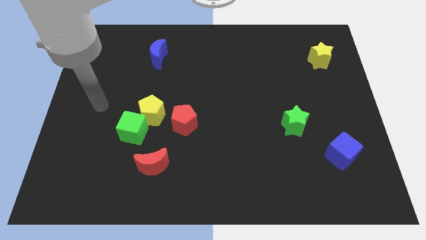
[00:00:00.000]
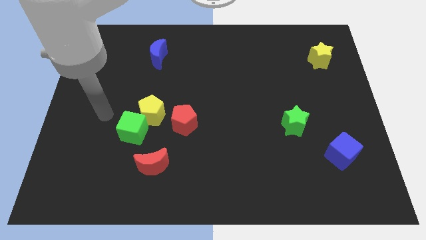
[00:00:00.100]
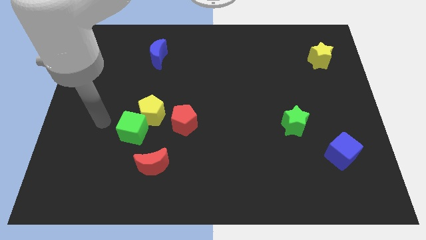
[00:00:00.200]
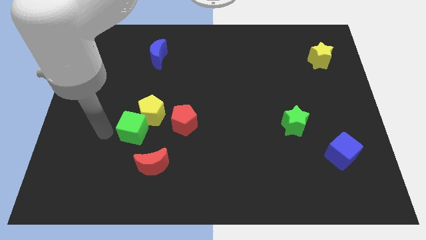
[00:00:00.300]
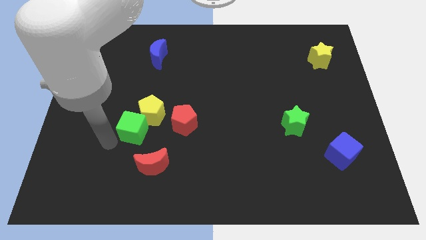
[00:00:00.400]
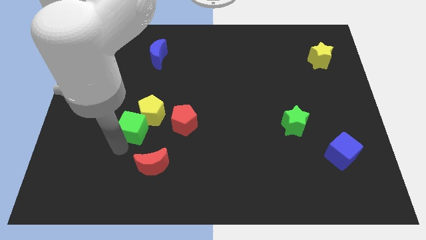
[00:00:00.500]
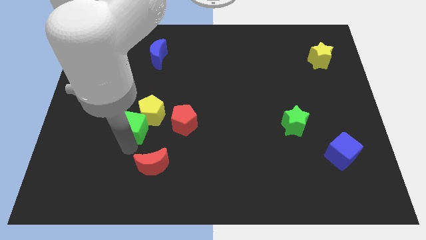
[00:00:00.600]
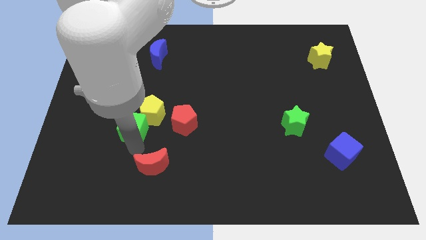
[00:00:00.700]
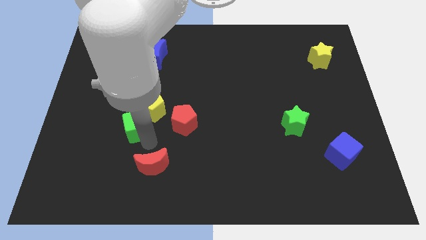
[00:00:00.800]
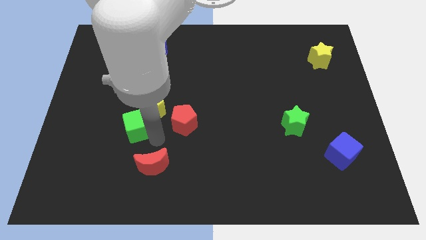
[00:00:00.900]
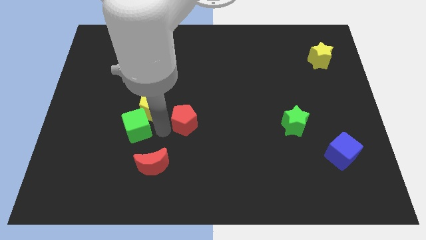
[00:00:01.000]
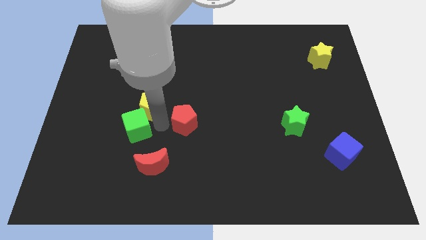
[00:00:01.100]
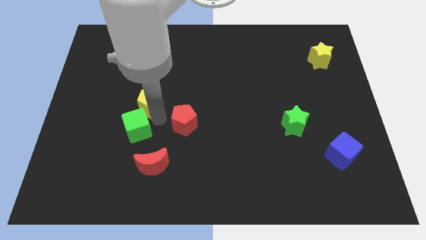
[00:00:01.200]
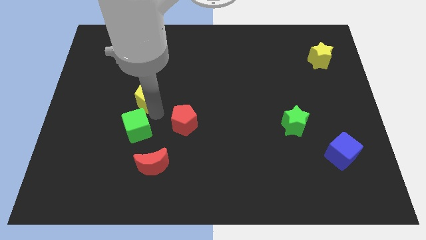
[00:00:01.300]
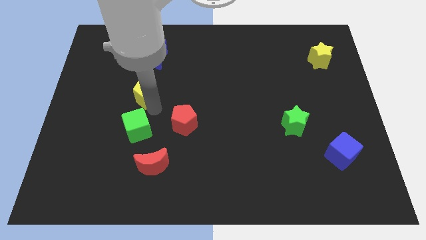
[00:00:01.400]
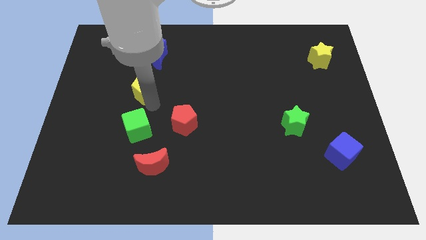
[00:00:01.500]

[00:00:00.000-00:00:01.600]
pull the yellow pentagon apart from the green cube and red pentagon

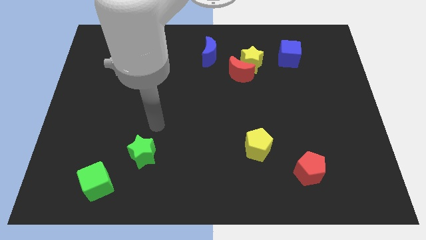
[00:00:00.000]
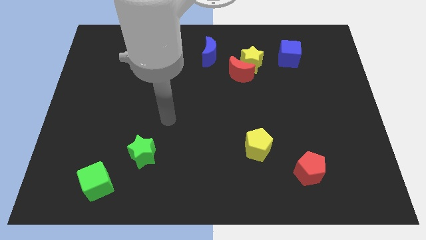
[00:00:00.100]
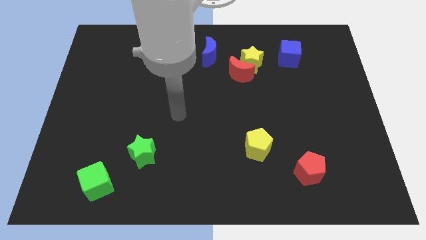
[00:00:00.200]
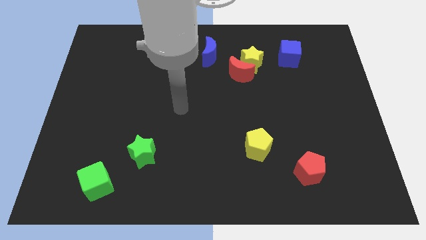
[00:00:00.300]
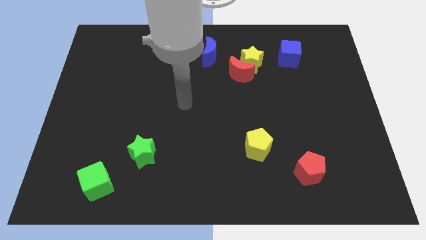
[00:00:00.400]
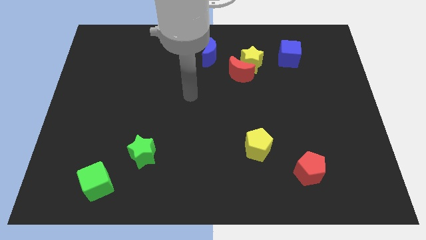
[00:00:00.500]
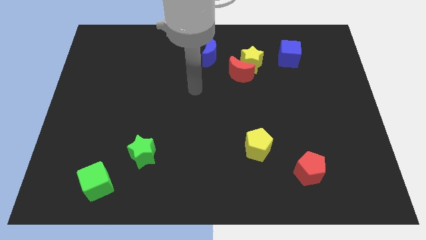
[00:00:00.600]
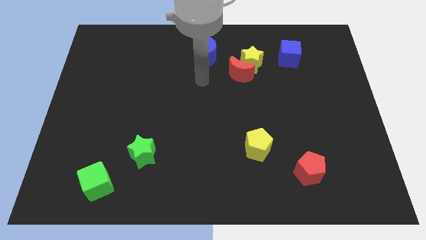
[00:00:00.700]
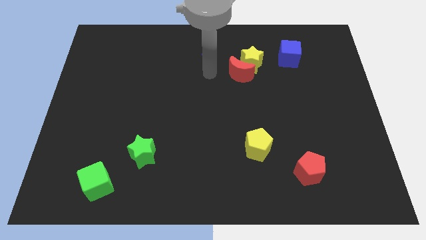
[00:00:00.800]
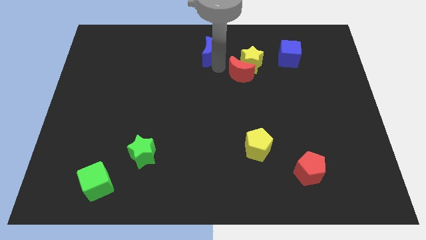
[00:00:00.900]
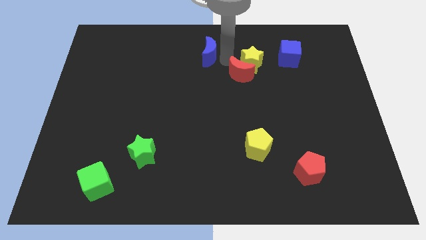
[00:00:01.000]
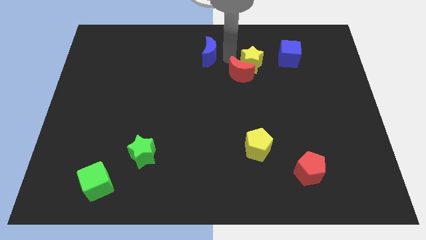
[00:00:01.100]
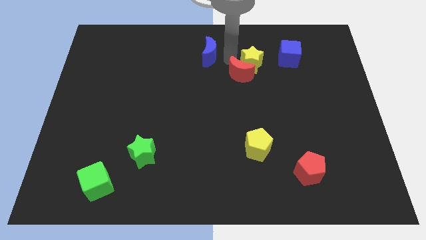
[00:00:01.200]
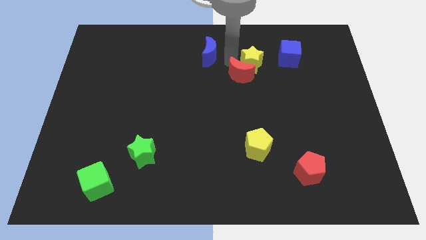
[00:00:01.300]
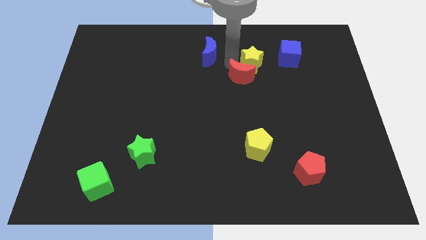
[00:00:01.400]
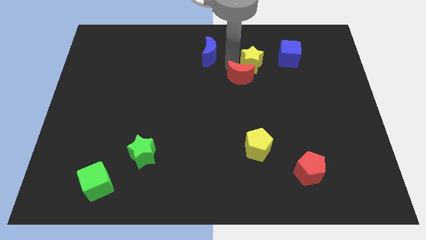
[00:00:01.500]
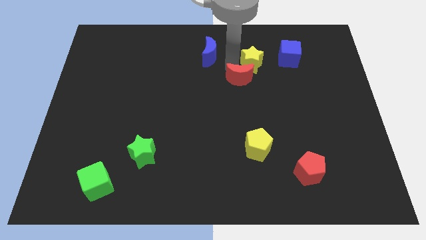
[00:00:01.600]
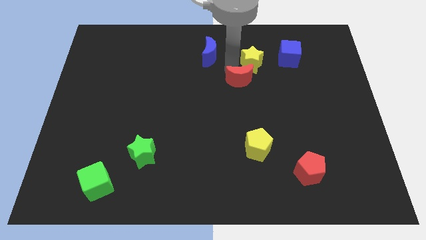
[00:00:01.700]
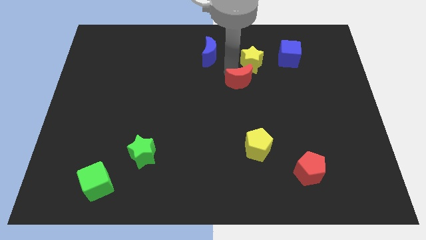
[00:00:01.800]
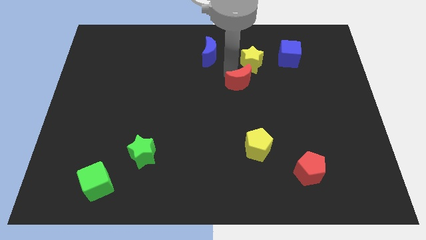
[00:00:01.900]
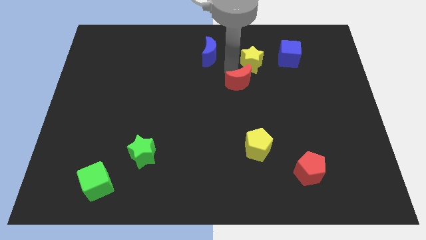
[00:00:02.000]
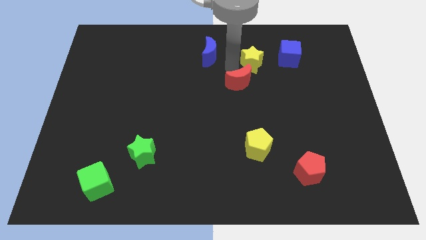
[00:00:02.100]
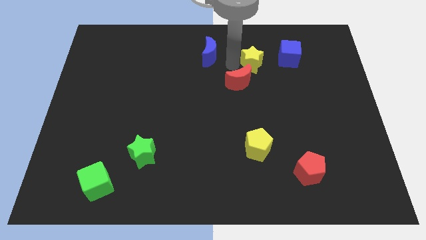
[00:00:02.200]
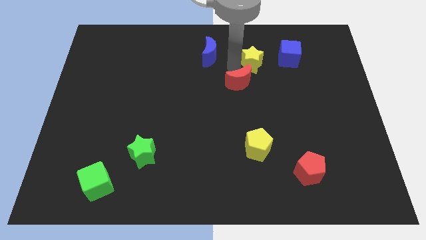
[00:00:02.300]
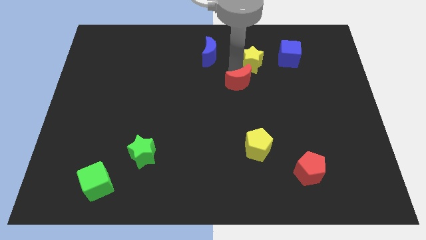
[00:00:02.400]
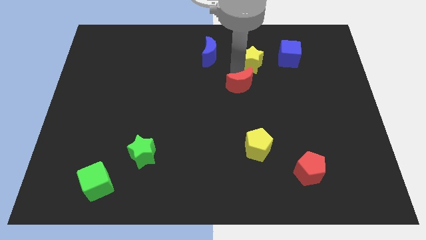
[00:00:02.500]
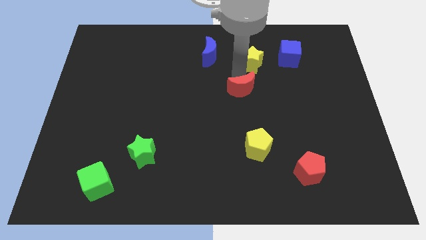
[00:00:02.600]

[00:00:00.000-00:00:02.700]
separate the red moon from the yellow star and blue moon

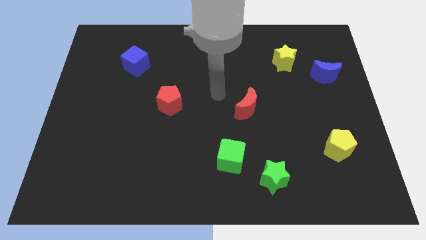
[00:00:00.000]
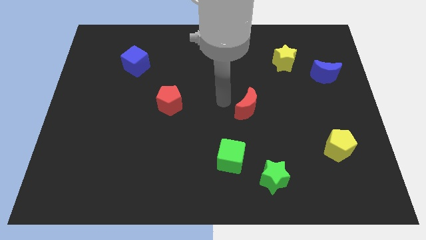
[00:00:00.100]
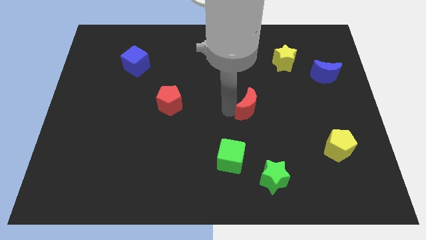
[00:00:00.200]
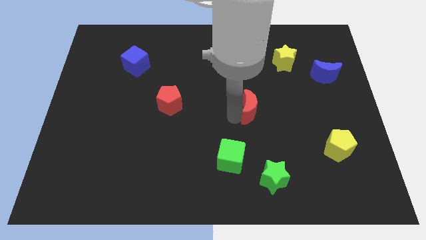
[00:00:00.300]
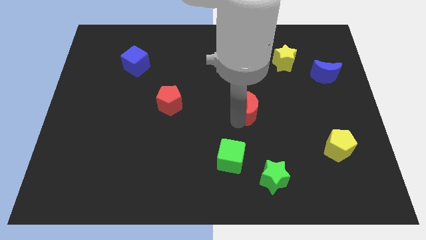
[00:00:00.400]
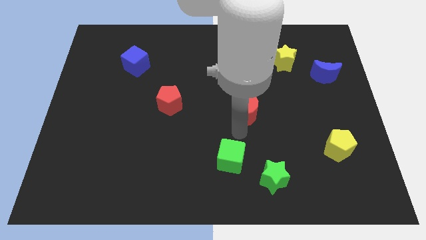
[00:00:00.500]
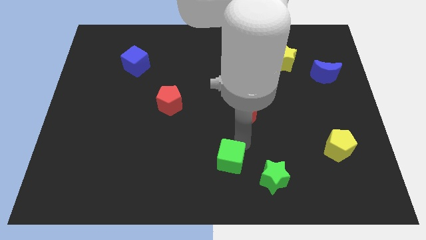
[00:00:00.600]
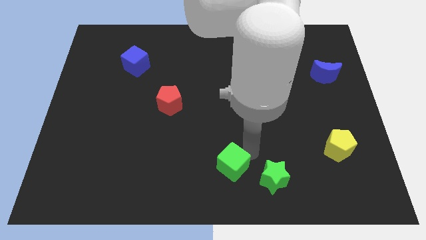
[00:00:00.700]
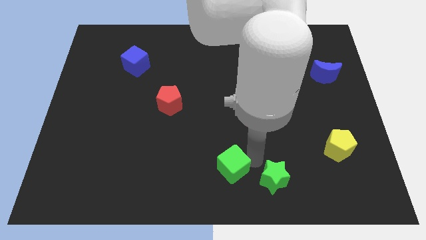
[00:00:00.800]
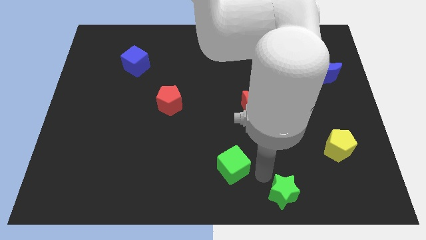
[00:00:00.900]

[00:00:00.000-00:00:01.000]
pull the green cube apart from the green star

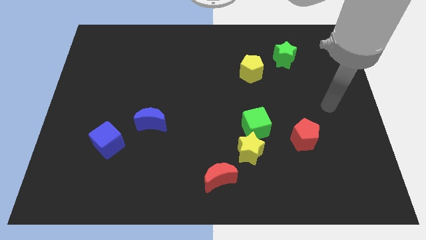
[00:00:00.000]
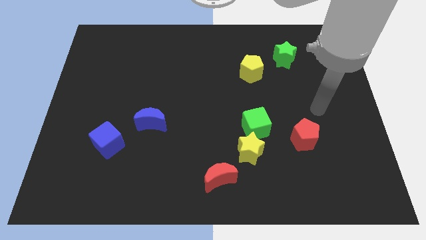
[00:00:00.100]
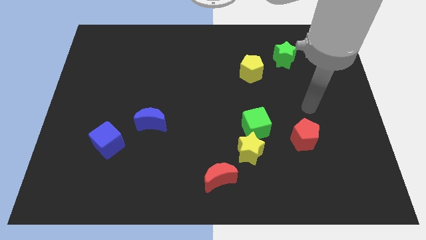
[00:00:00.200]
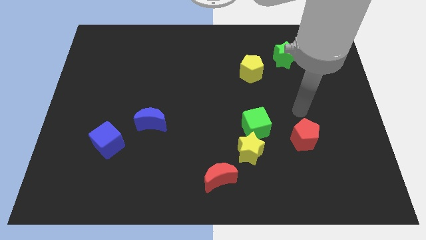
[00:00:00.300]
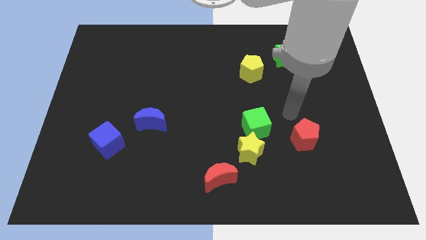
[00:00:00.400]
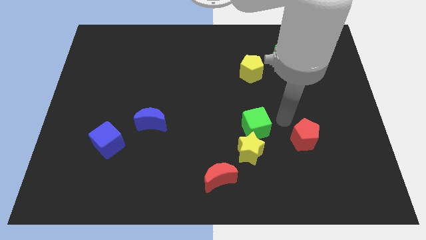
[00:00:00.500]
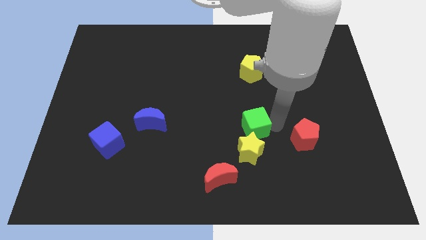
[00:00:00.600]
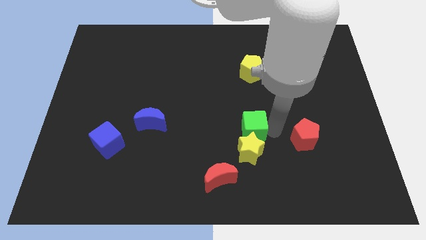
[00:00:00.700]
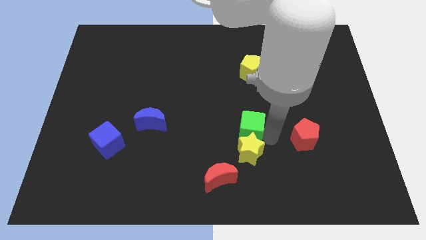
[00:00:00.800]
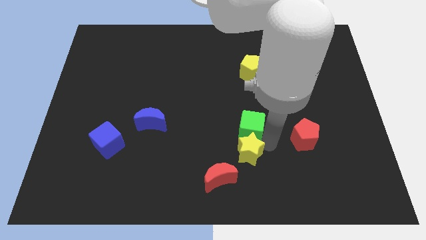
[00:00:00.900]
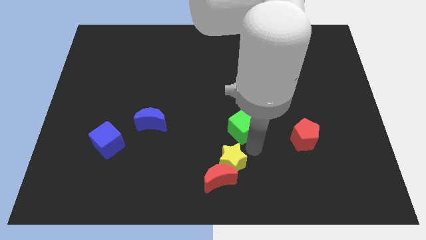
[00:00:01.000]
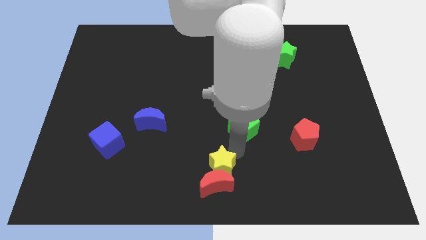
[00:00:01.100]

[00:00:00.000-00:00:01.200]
pull the green cube apart from the yellow star

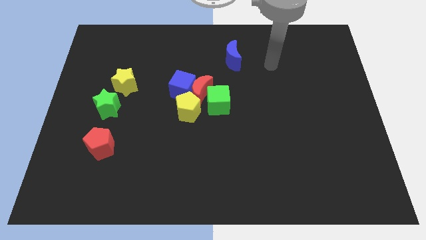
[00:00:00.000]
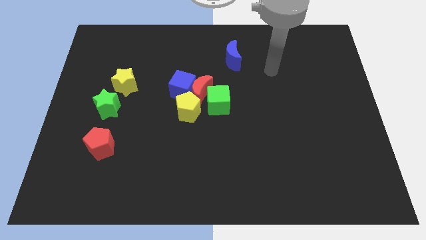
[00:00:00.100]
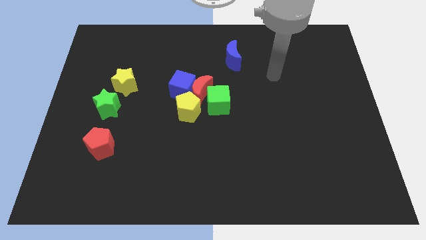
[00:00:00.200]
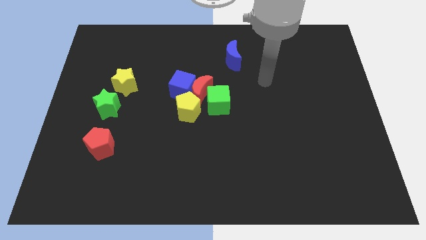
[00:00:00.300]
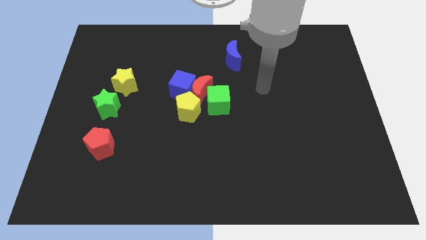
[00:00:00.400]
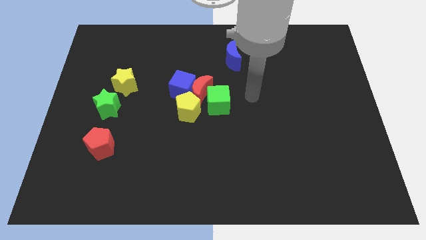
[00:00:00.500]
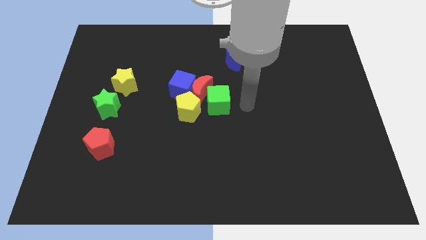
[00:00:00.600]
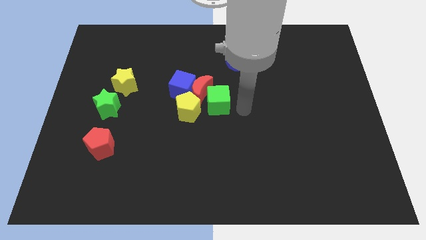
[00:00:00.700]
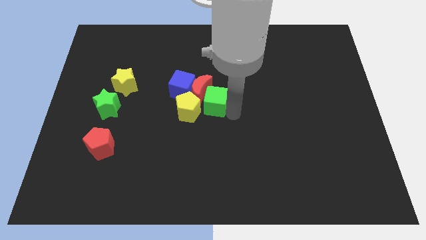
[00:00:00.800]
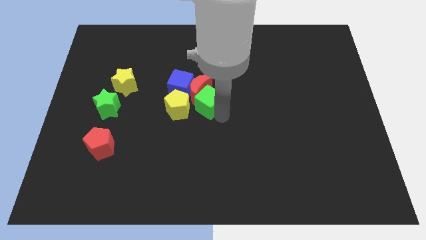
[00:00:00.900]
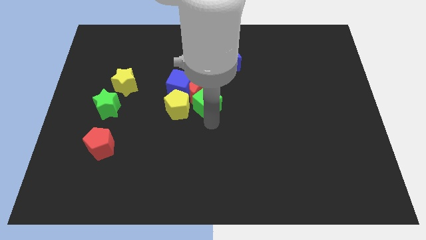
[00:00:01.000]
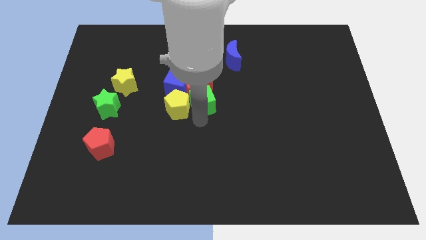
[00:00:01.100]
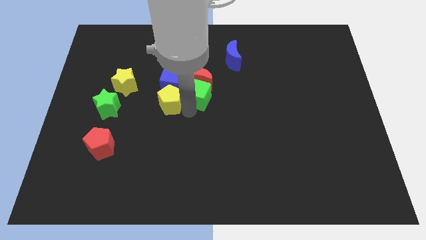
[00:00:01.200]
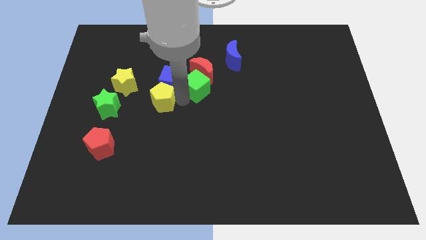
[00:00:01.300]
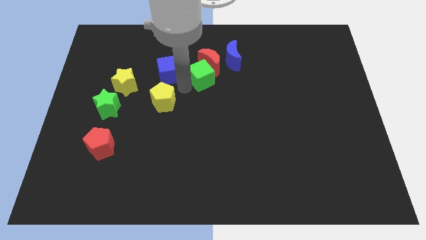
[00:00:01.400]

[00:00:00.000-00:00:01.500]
move the red moon away from the group

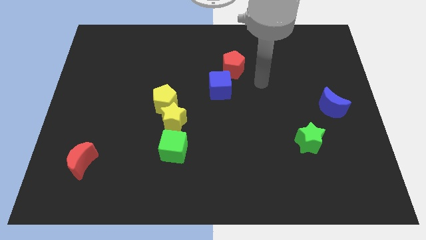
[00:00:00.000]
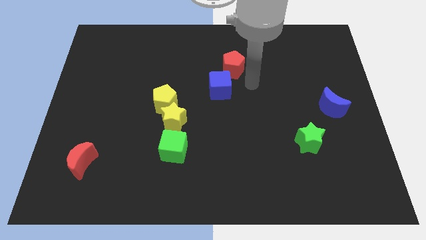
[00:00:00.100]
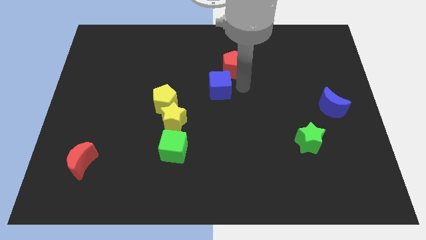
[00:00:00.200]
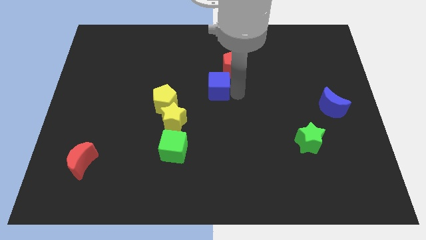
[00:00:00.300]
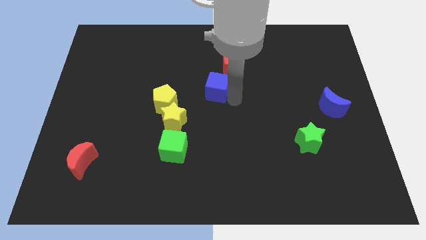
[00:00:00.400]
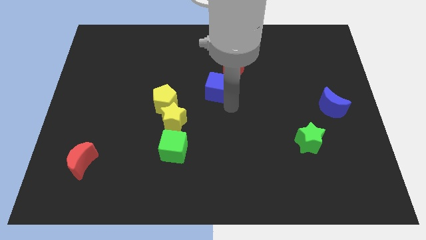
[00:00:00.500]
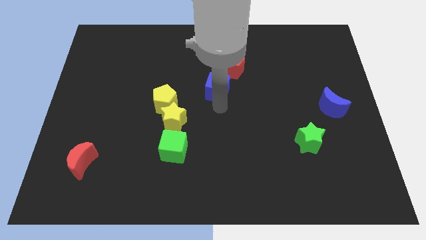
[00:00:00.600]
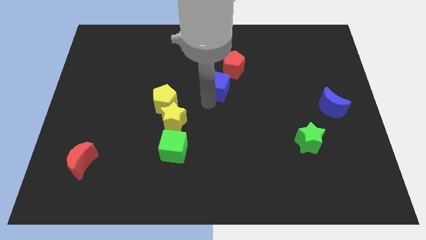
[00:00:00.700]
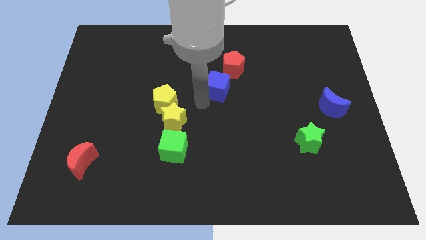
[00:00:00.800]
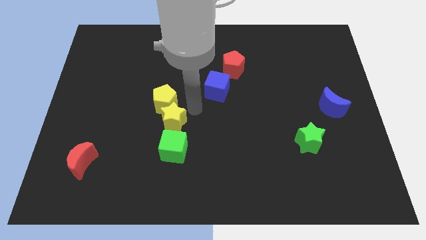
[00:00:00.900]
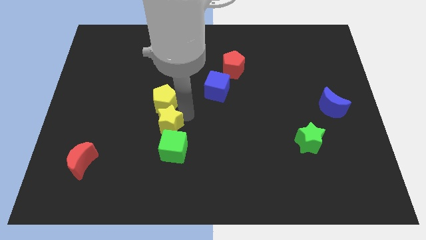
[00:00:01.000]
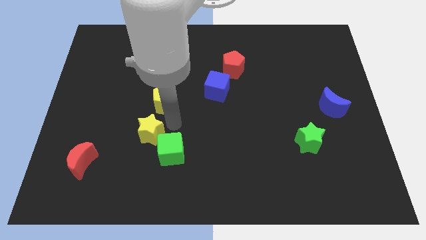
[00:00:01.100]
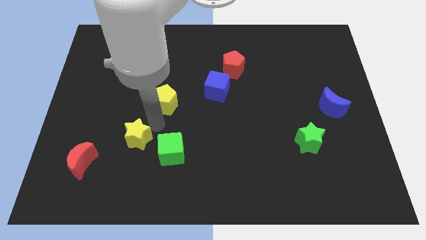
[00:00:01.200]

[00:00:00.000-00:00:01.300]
move the yellow pentagon away from the yellow star

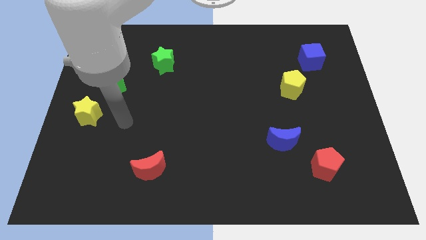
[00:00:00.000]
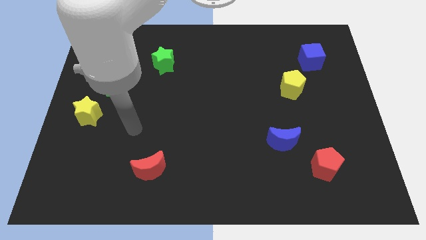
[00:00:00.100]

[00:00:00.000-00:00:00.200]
move the red pentagon away from the blue moon
